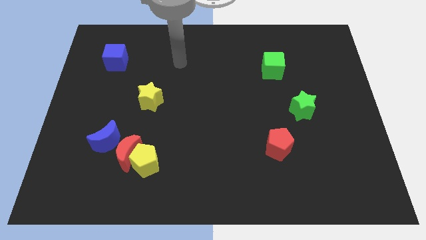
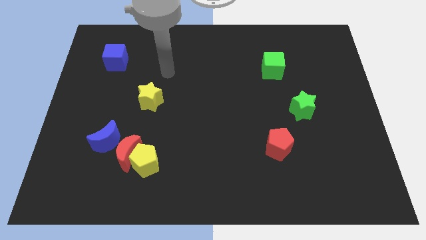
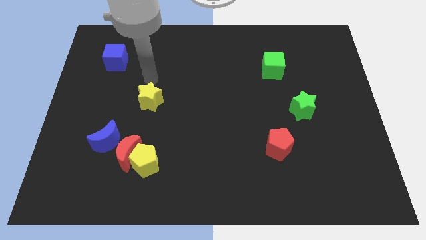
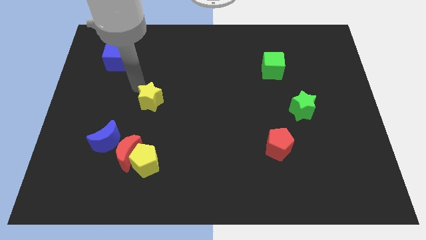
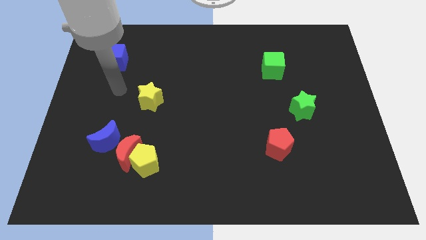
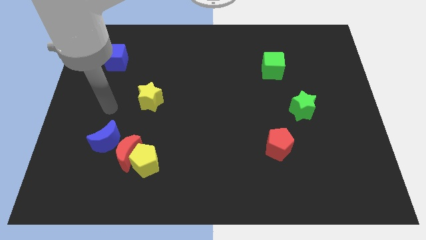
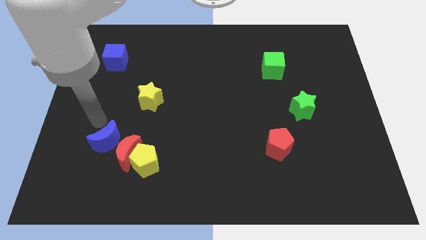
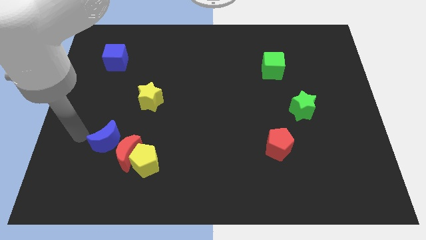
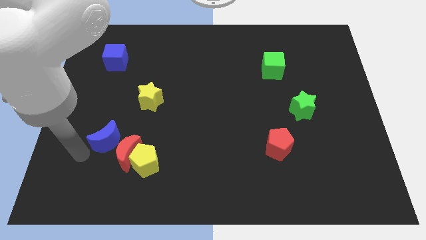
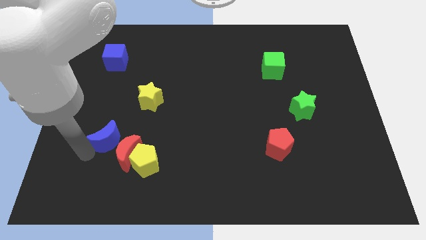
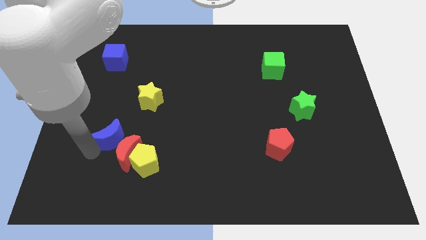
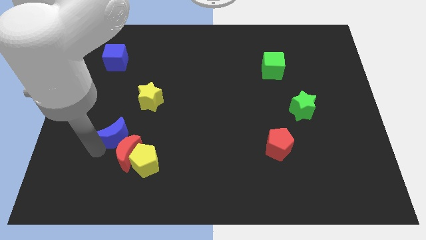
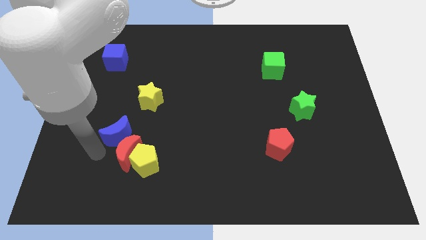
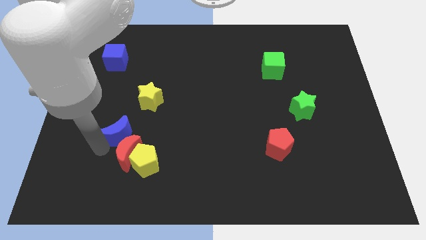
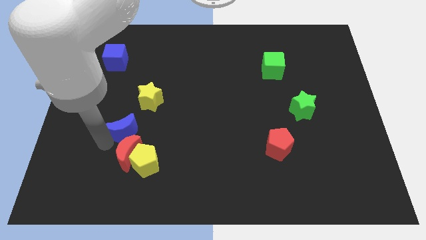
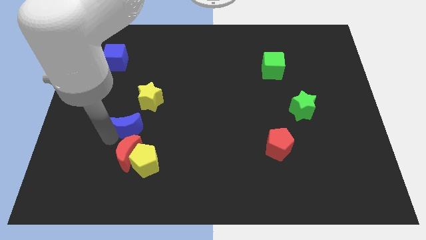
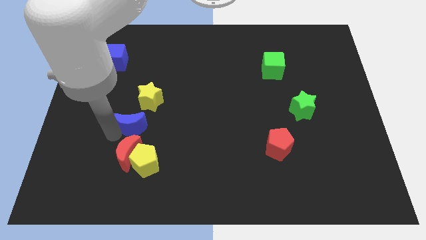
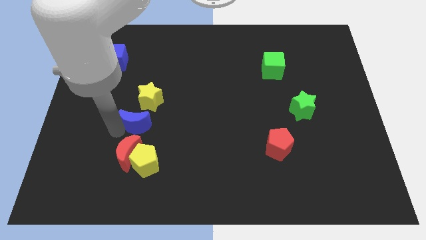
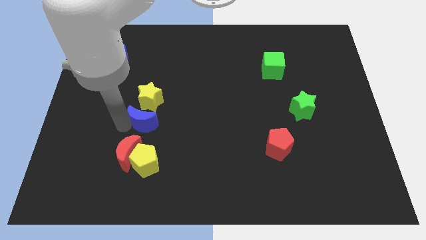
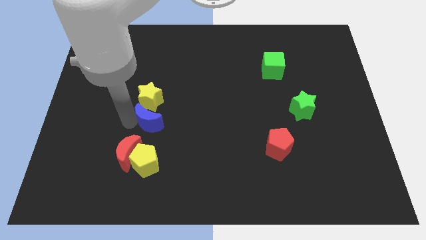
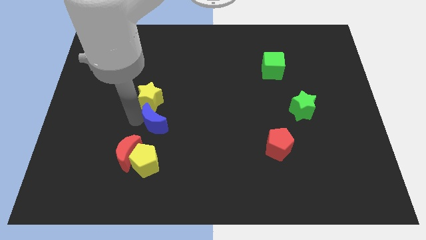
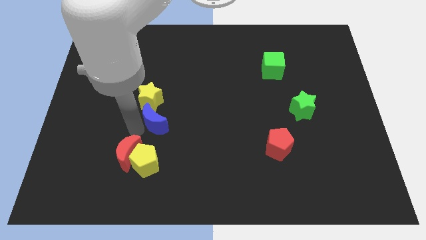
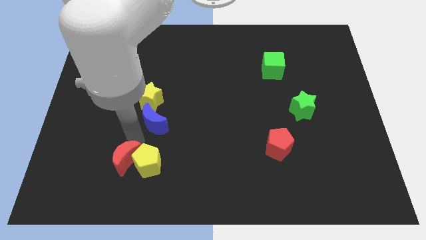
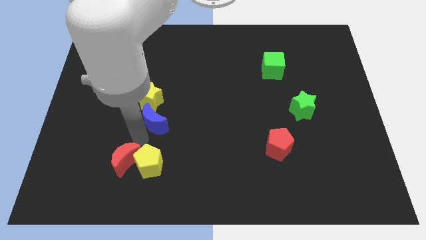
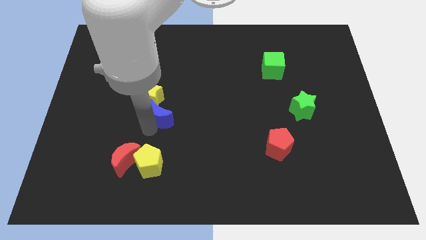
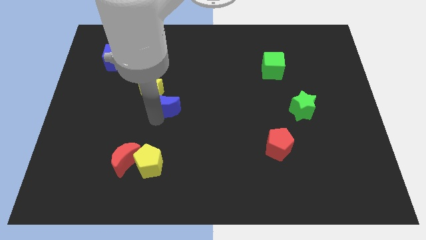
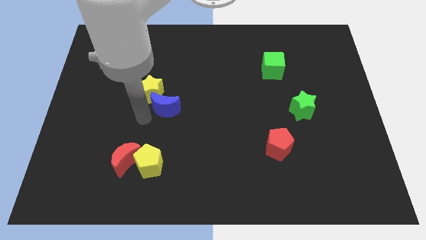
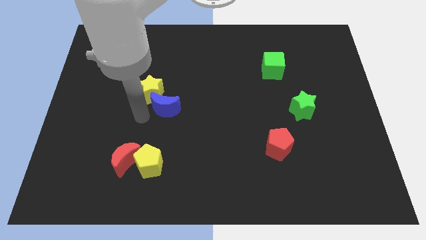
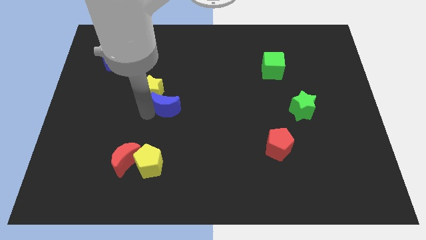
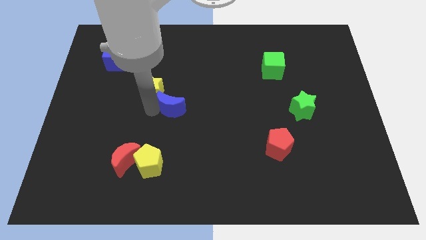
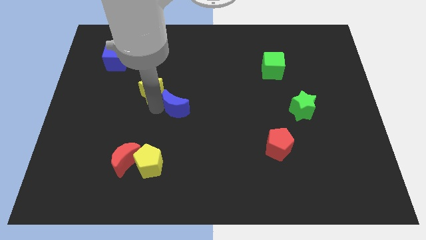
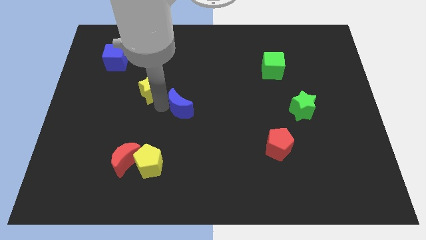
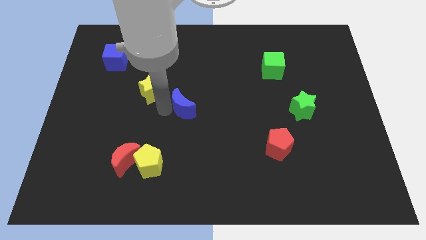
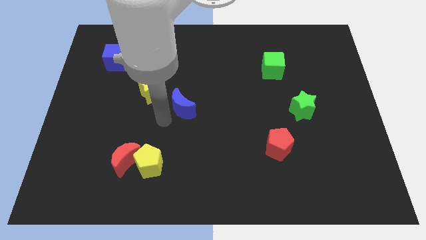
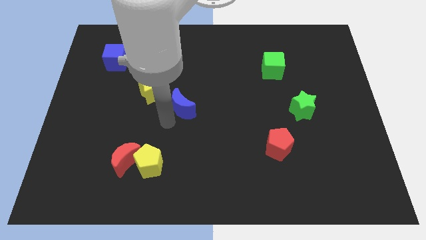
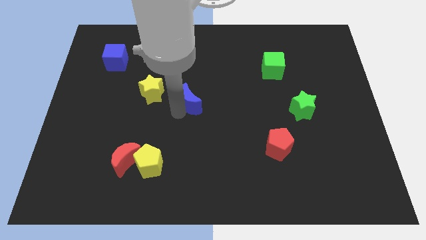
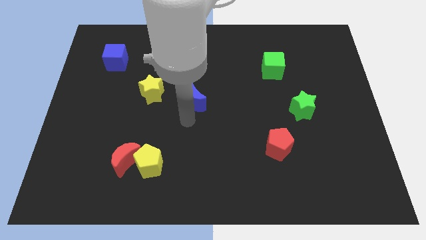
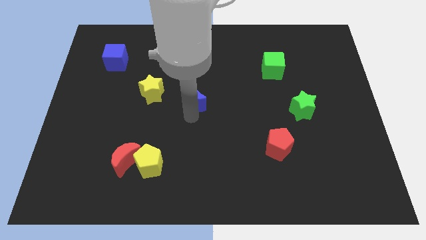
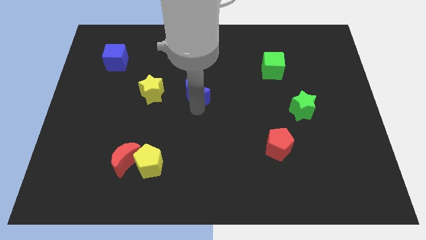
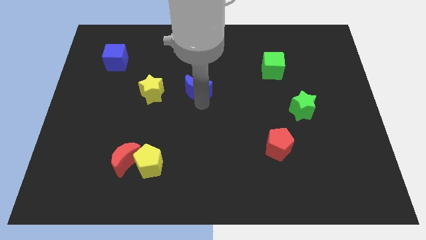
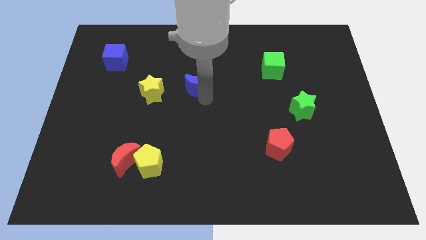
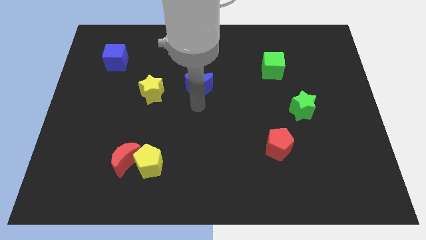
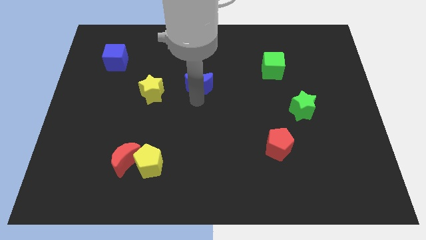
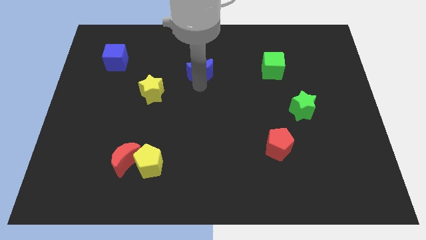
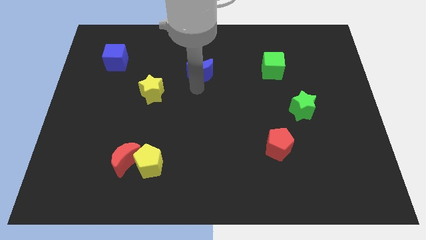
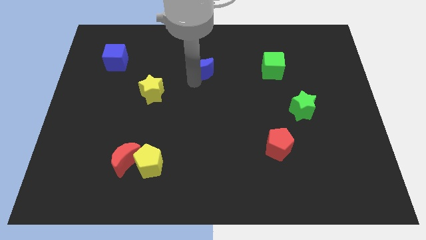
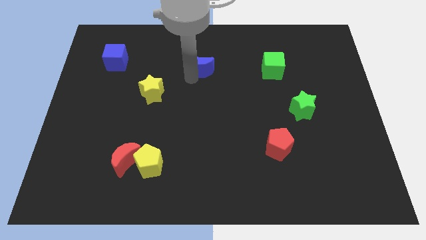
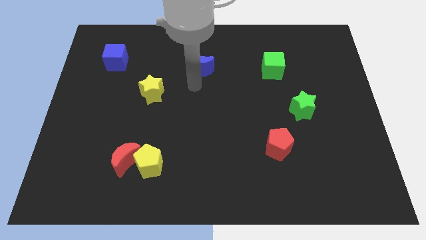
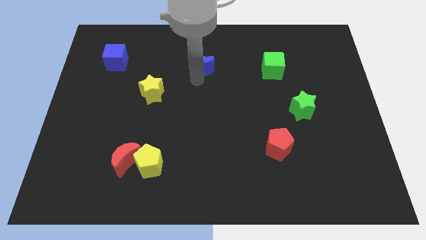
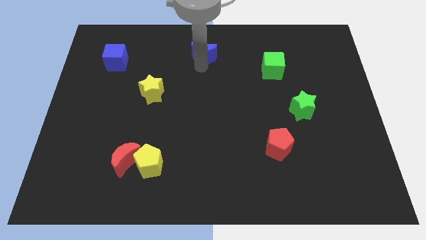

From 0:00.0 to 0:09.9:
slide the blue moon to the towards your base

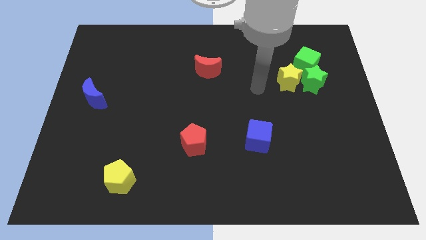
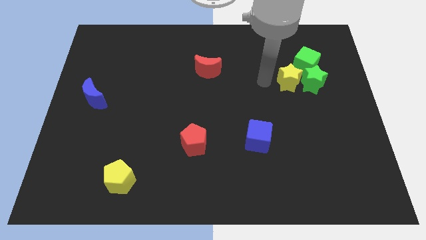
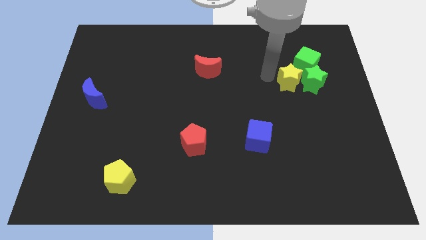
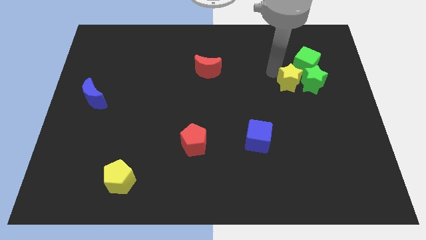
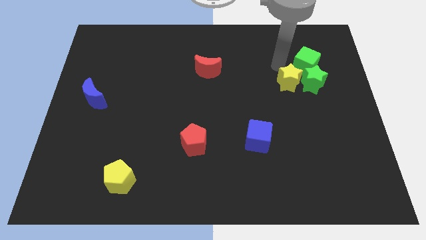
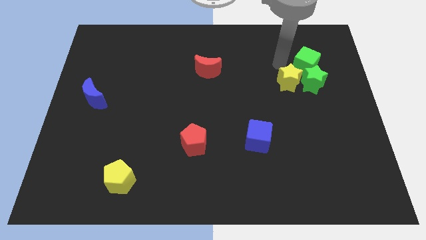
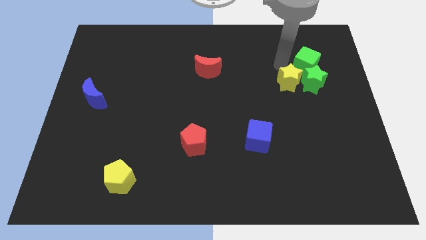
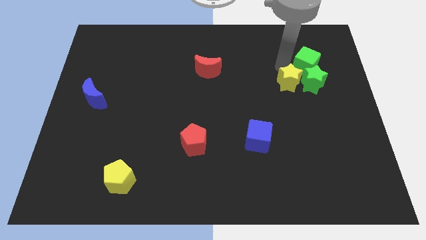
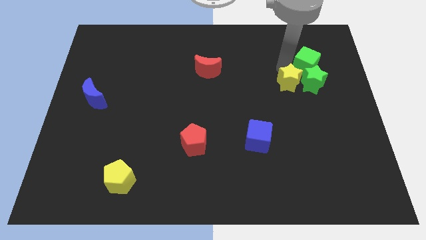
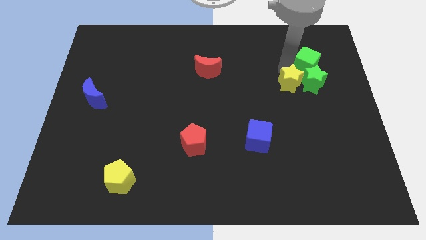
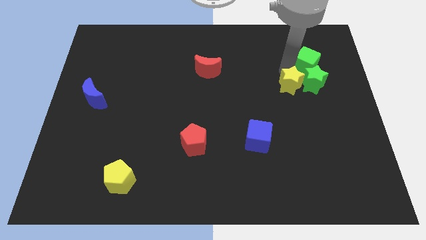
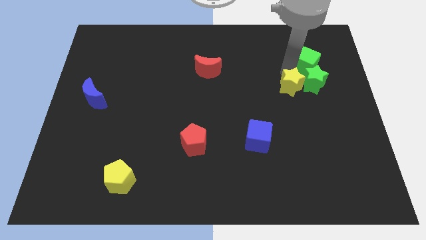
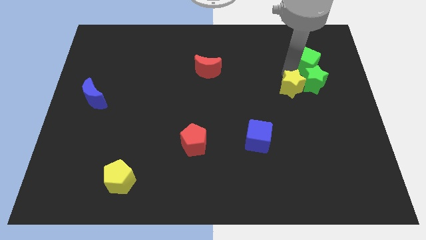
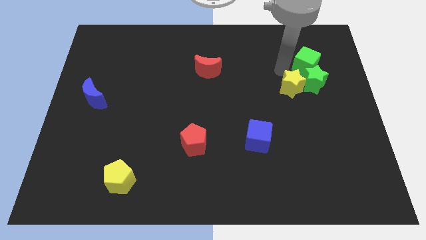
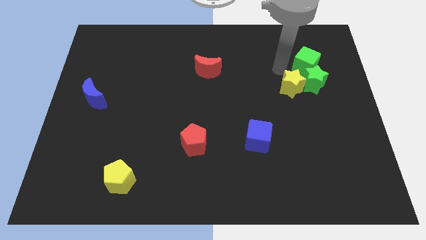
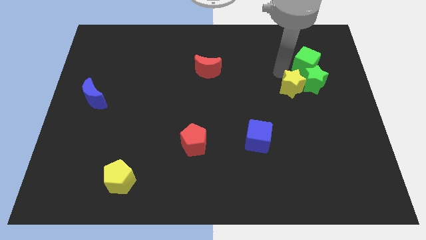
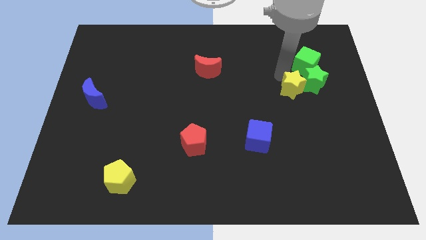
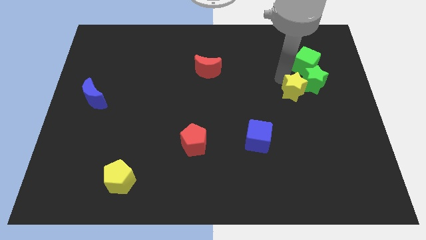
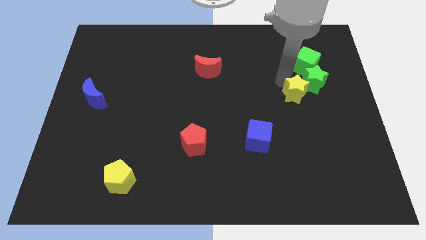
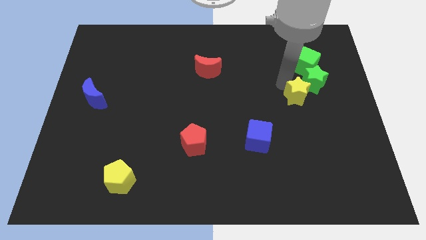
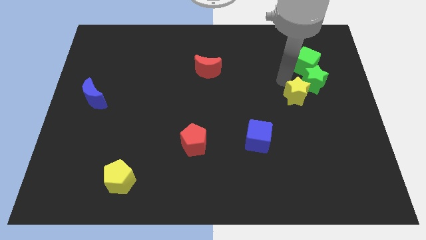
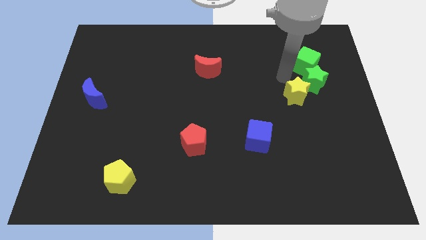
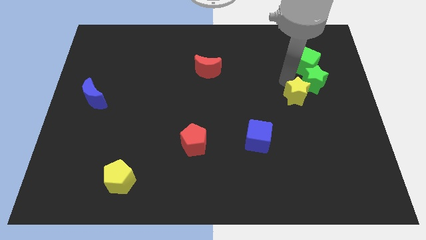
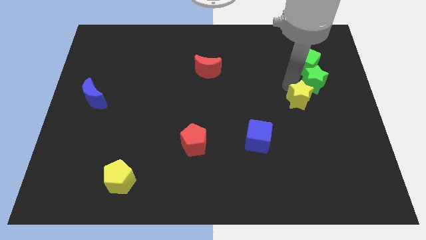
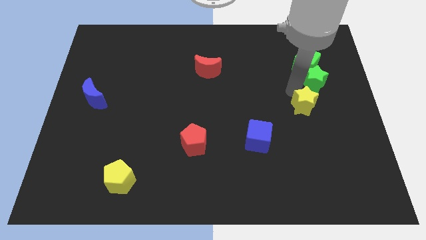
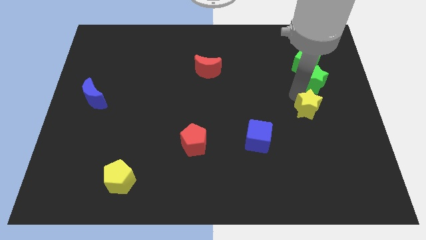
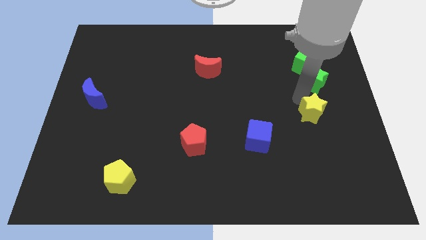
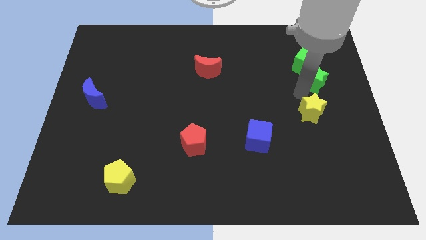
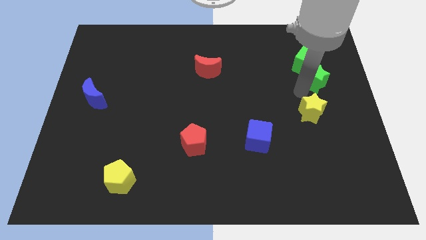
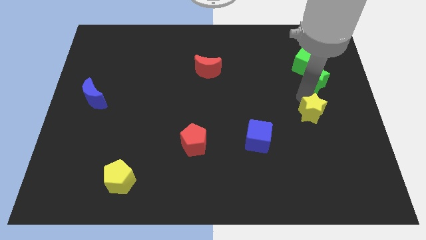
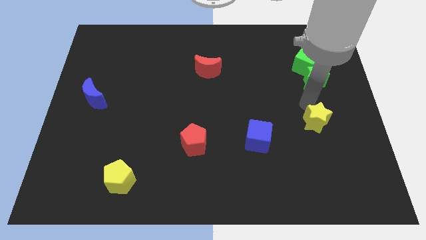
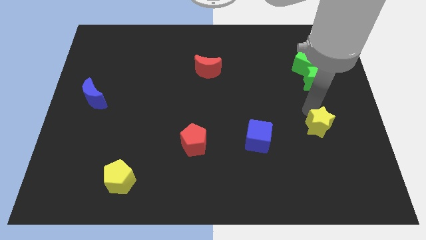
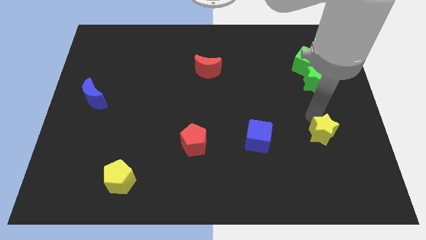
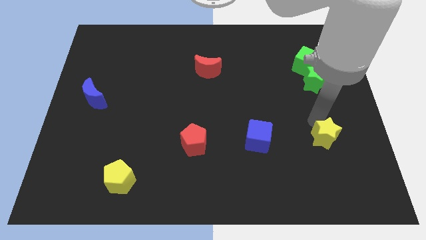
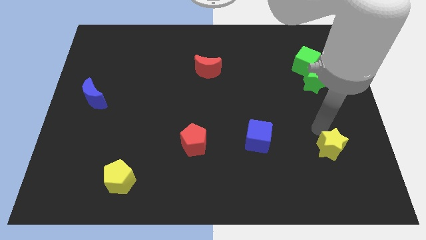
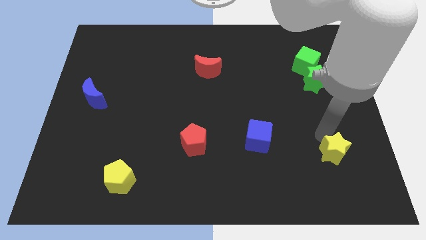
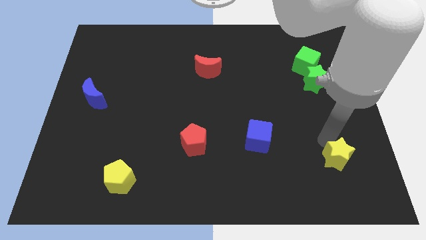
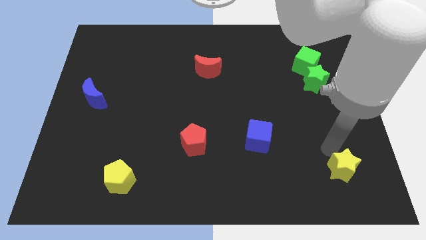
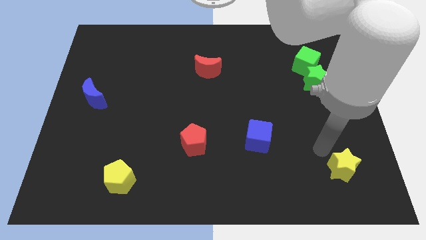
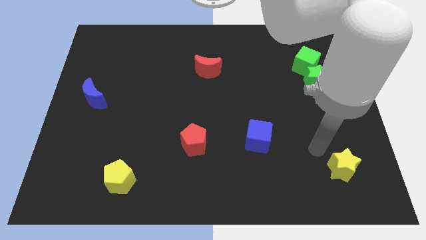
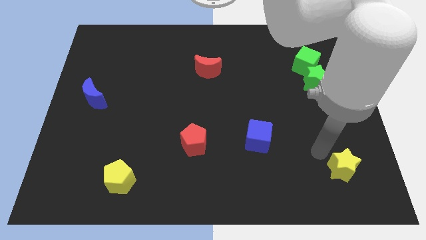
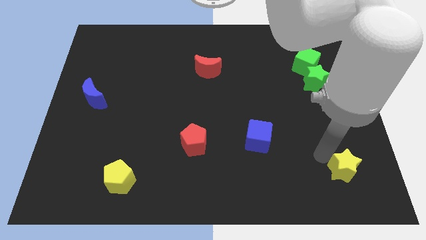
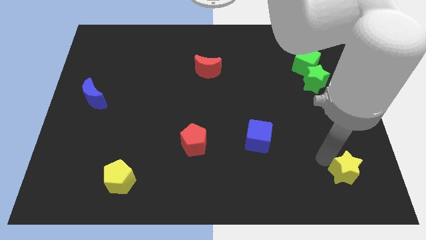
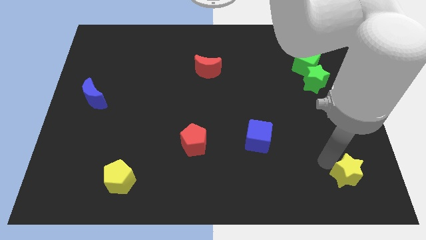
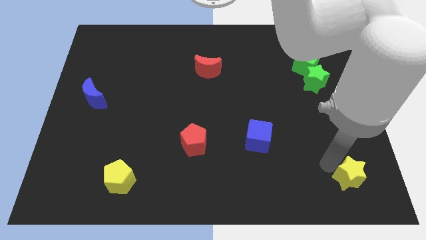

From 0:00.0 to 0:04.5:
move the yellow star to the bottom right
